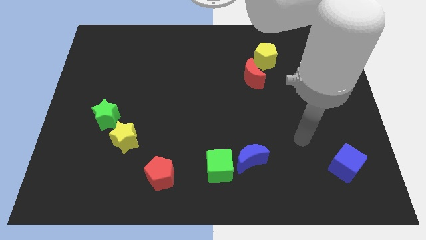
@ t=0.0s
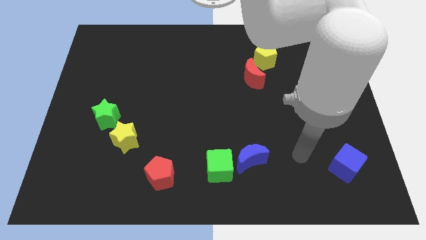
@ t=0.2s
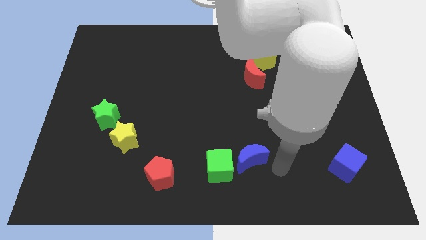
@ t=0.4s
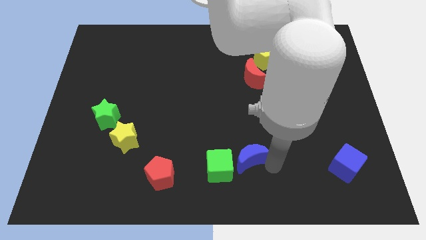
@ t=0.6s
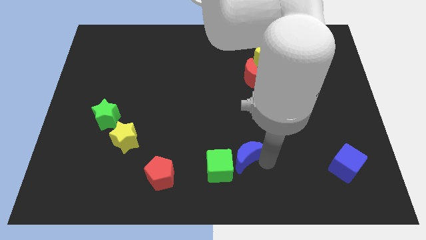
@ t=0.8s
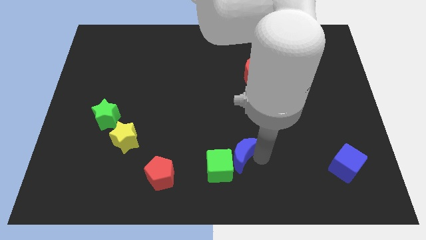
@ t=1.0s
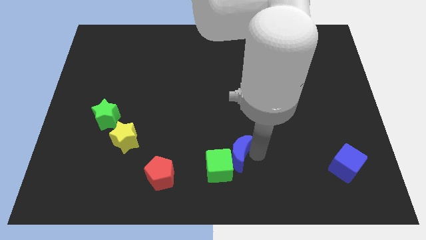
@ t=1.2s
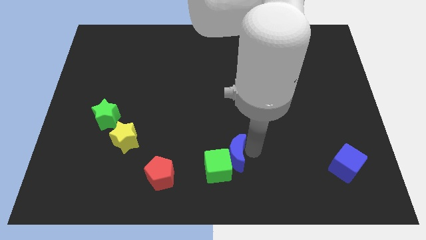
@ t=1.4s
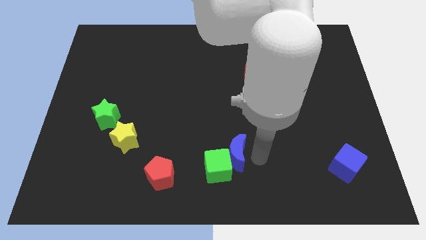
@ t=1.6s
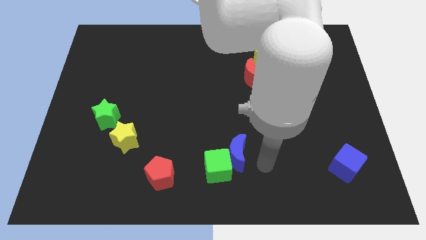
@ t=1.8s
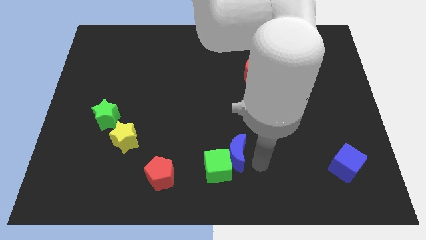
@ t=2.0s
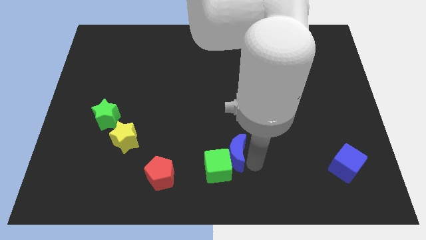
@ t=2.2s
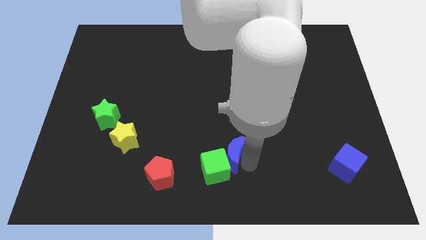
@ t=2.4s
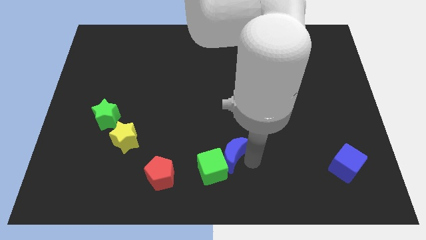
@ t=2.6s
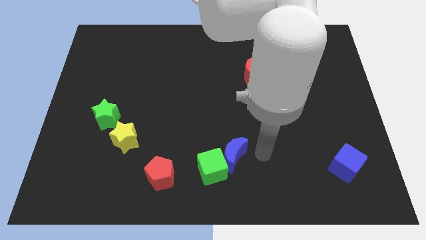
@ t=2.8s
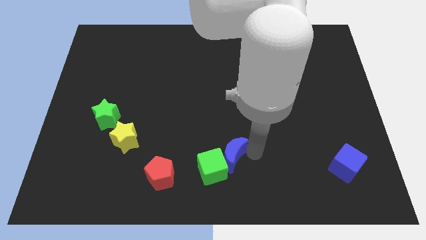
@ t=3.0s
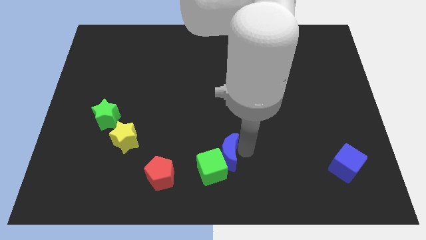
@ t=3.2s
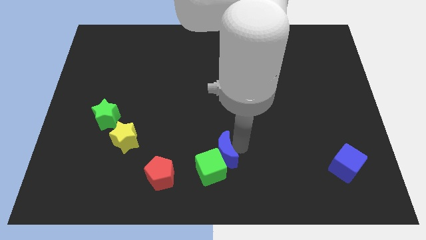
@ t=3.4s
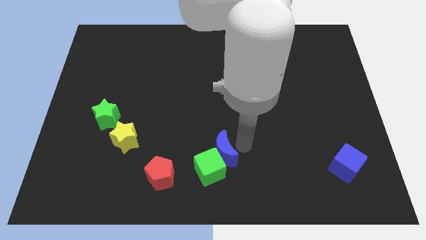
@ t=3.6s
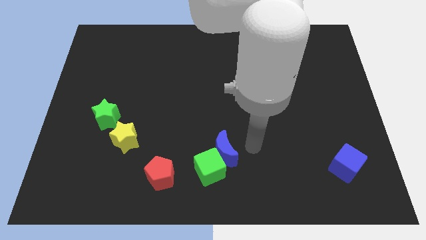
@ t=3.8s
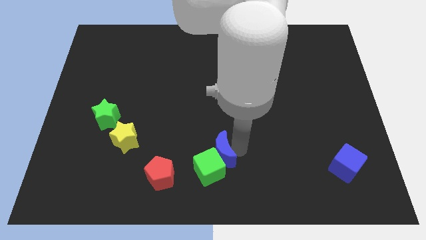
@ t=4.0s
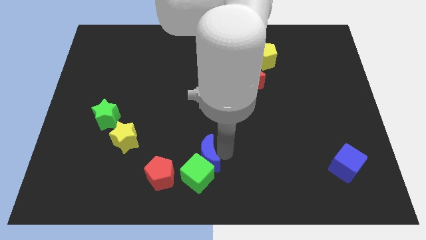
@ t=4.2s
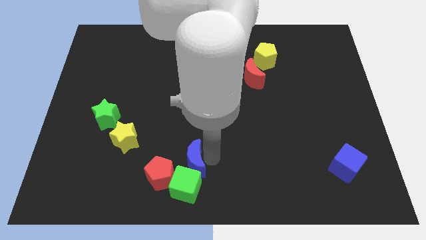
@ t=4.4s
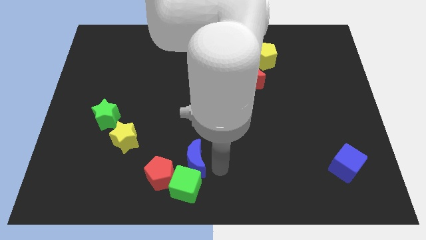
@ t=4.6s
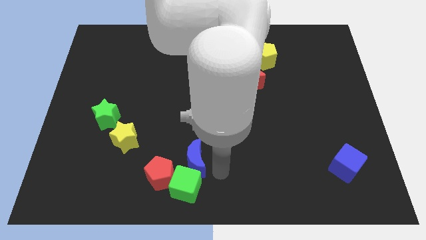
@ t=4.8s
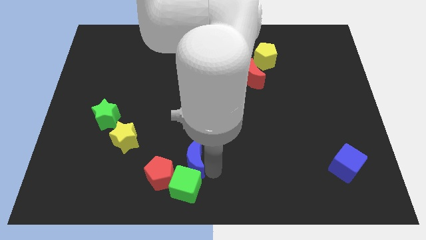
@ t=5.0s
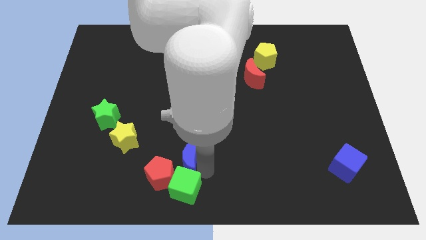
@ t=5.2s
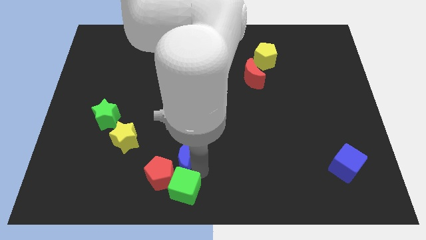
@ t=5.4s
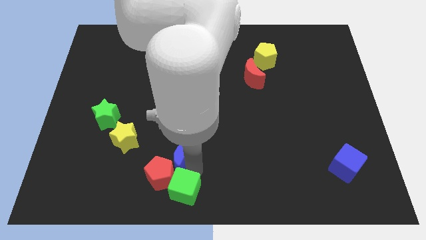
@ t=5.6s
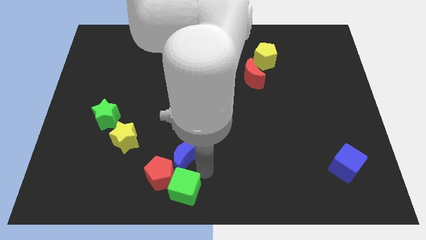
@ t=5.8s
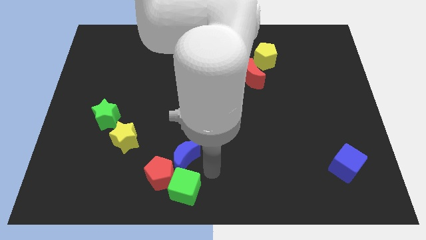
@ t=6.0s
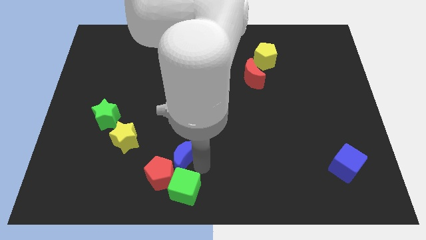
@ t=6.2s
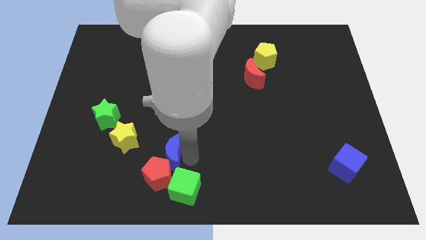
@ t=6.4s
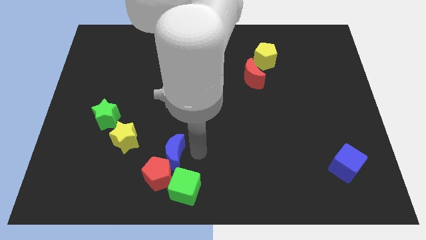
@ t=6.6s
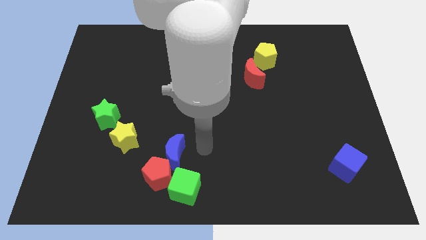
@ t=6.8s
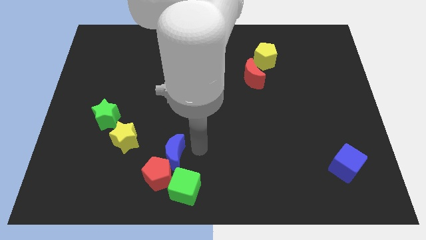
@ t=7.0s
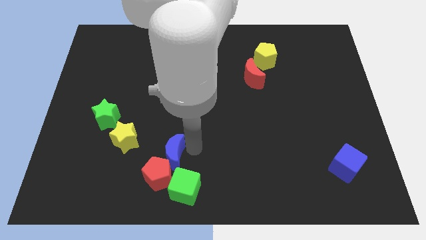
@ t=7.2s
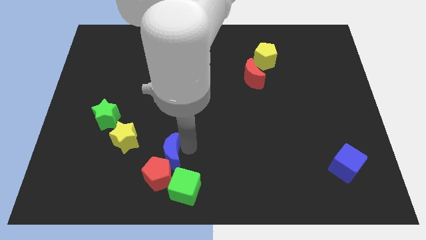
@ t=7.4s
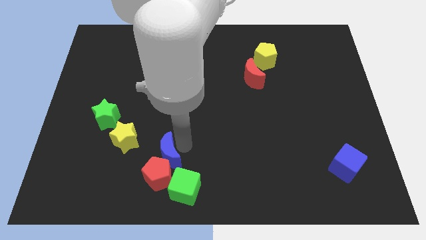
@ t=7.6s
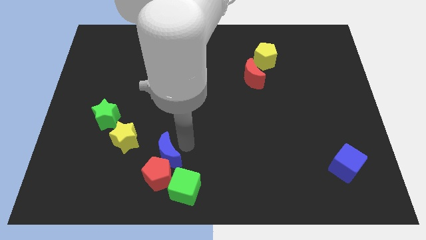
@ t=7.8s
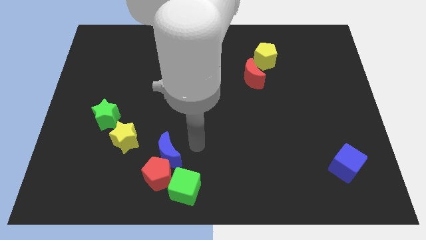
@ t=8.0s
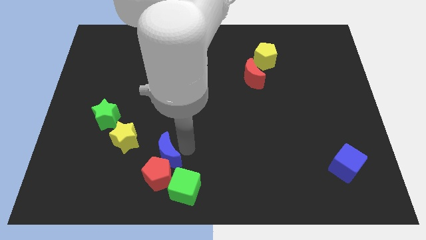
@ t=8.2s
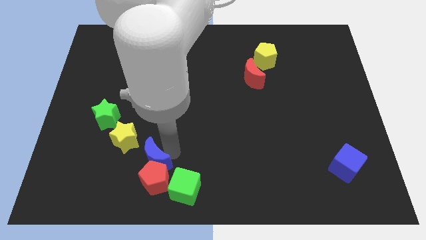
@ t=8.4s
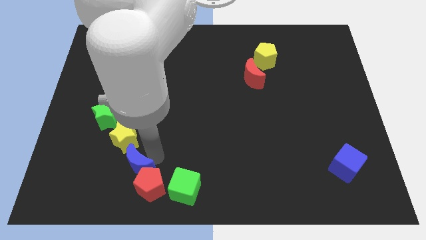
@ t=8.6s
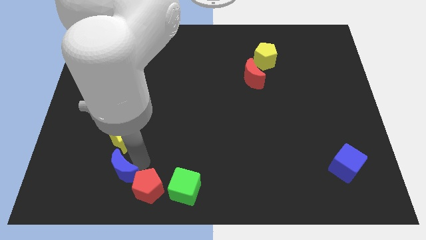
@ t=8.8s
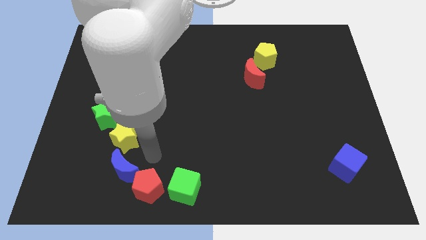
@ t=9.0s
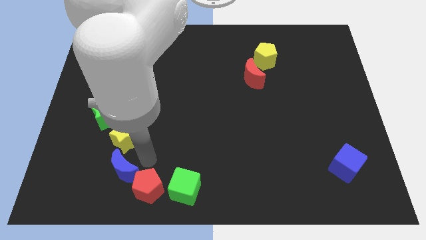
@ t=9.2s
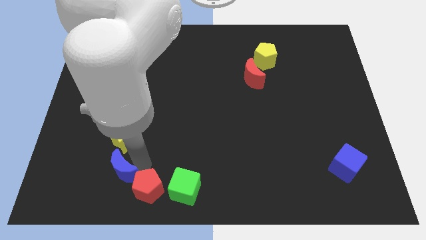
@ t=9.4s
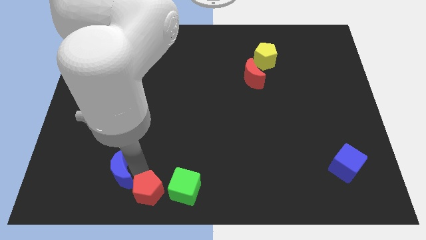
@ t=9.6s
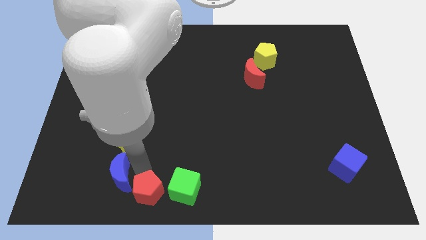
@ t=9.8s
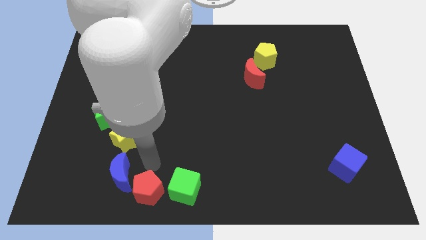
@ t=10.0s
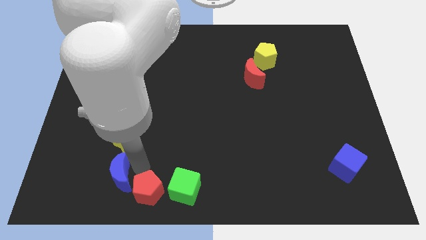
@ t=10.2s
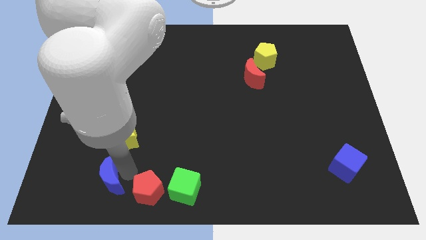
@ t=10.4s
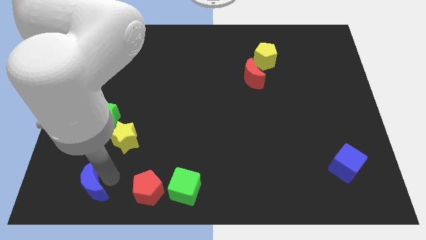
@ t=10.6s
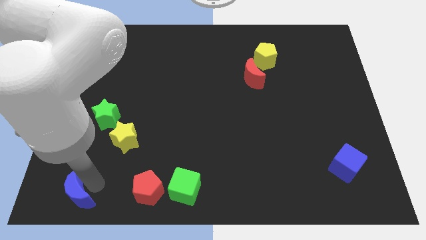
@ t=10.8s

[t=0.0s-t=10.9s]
put the blue moon to the bottom left
